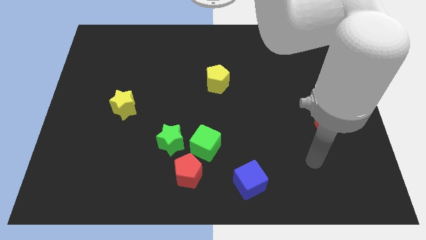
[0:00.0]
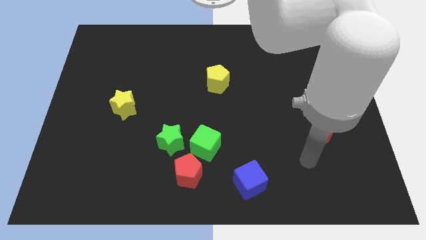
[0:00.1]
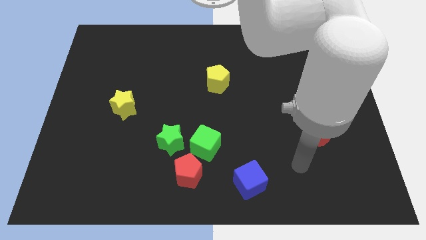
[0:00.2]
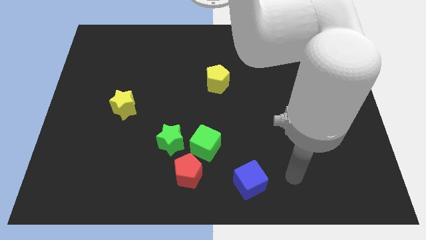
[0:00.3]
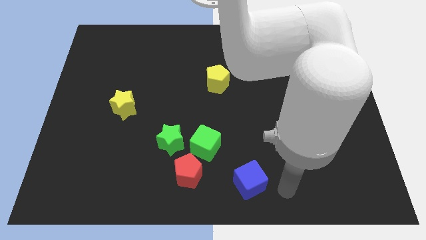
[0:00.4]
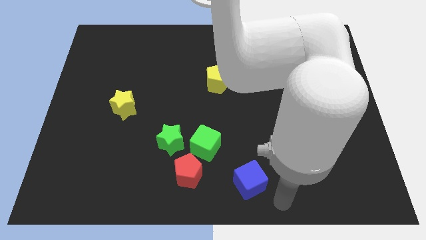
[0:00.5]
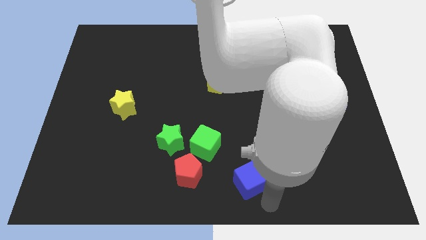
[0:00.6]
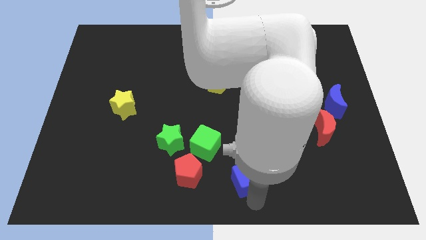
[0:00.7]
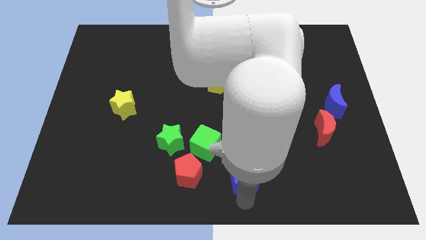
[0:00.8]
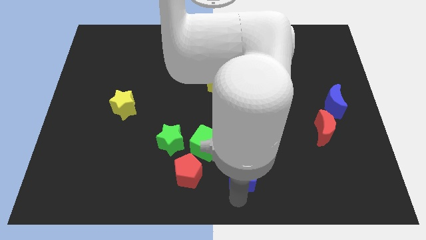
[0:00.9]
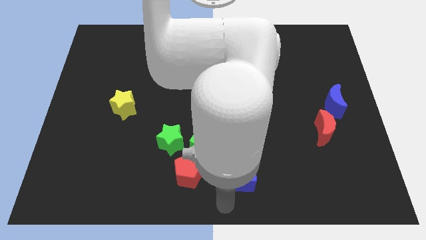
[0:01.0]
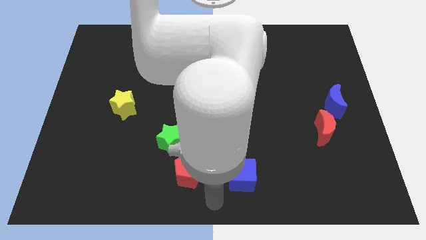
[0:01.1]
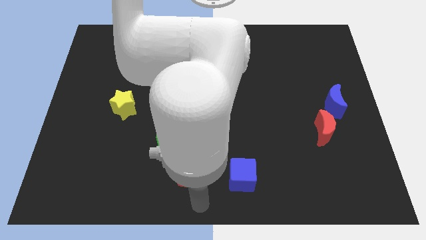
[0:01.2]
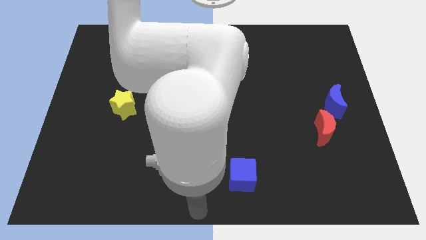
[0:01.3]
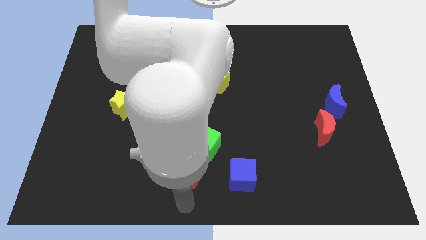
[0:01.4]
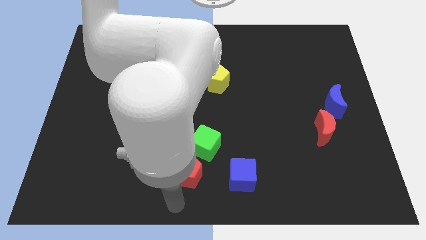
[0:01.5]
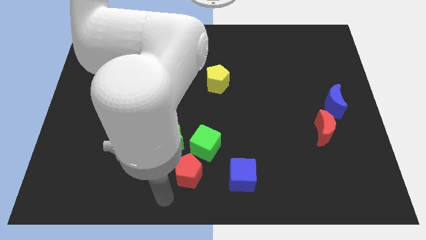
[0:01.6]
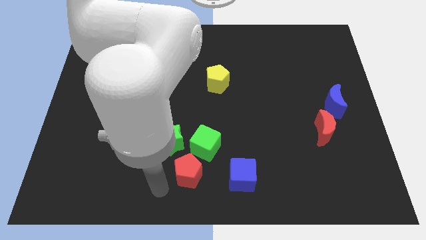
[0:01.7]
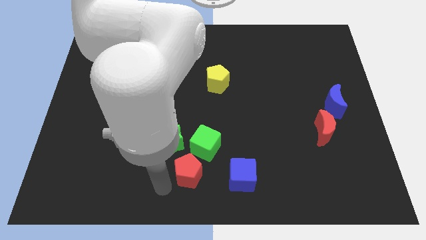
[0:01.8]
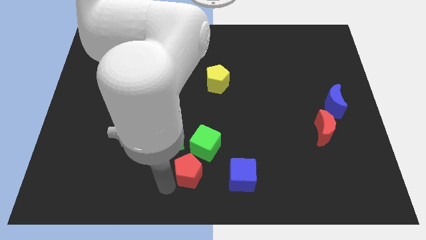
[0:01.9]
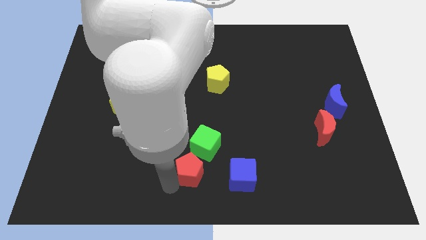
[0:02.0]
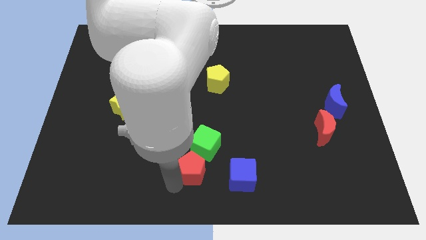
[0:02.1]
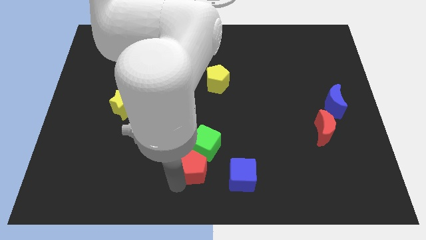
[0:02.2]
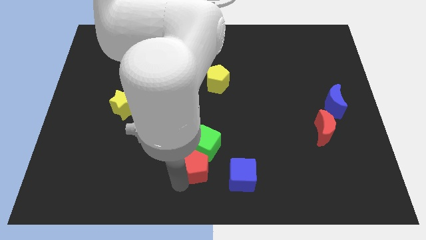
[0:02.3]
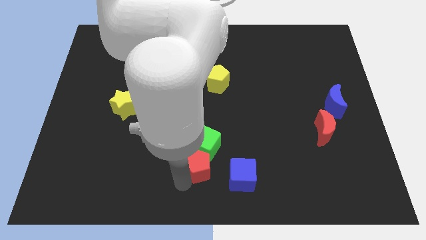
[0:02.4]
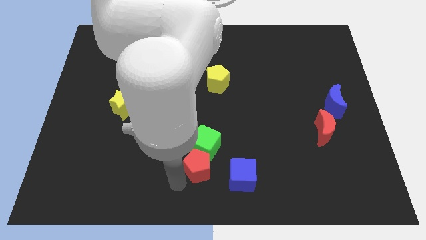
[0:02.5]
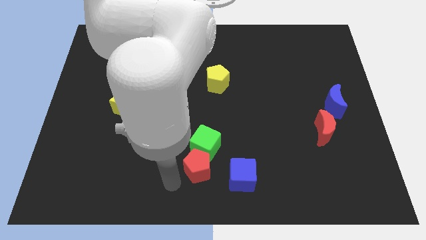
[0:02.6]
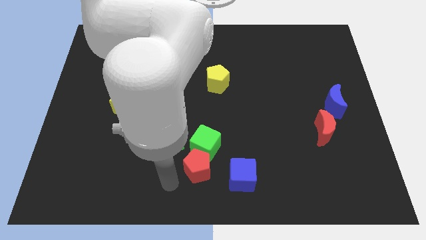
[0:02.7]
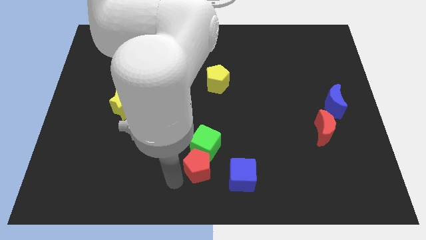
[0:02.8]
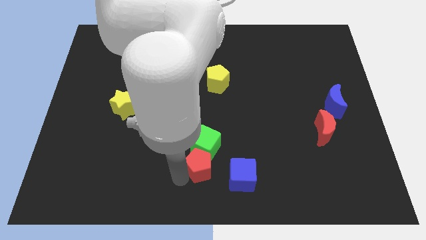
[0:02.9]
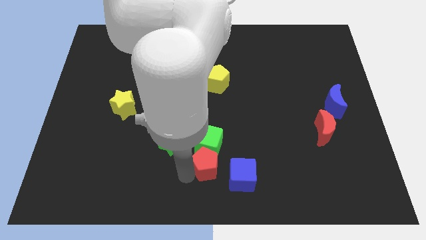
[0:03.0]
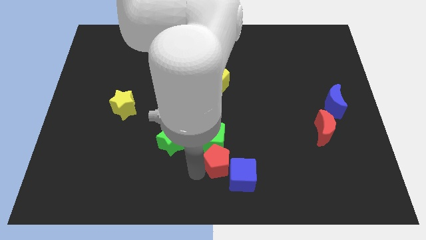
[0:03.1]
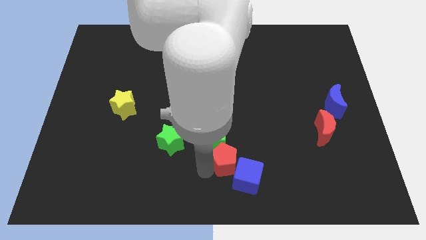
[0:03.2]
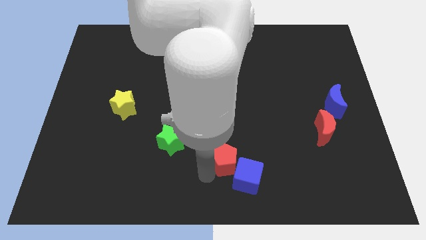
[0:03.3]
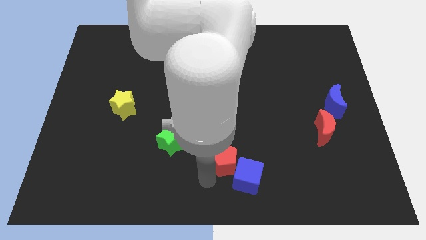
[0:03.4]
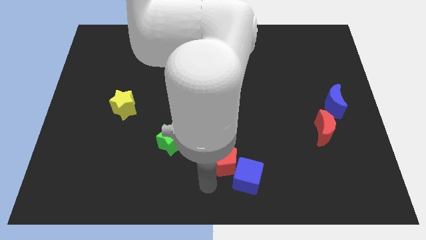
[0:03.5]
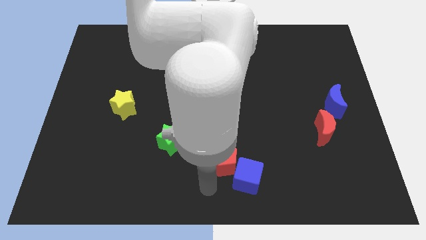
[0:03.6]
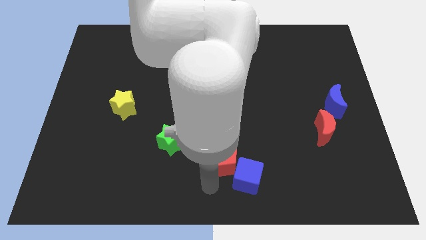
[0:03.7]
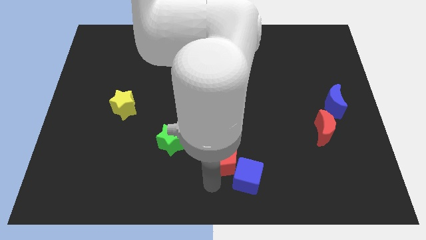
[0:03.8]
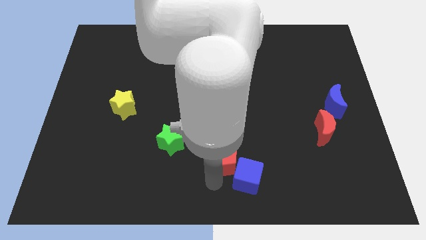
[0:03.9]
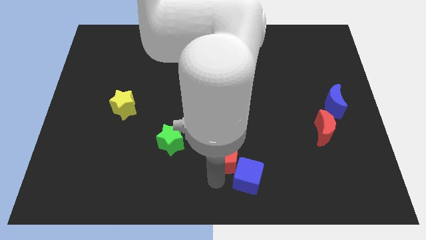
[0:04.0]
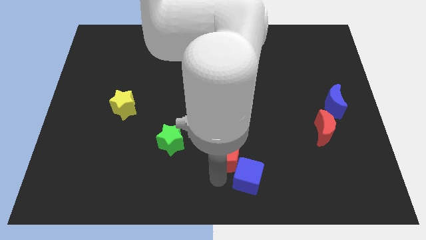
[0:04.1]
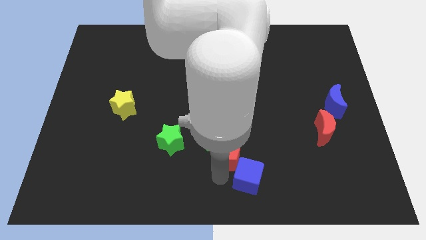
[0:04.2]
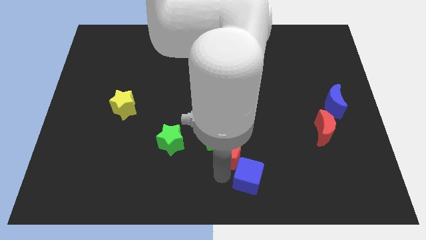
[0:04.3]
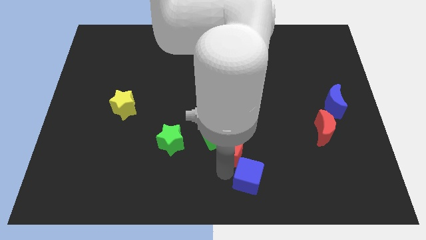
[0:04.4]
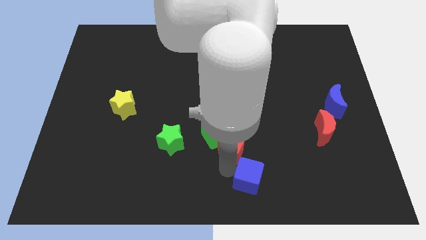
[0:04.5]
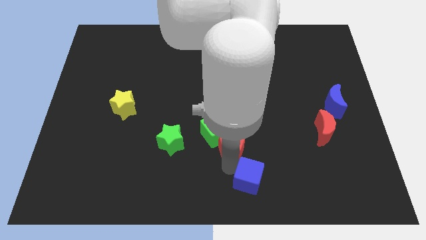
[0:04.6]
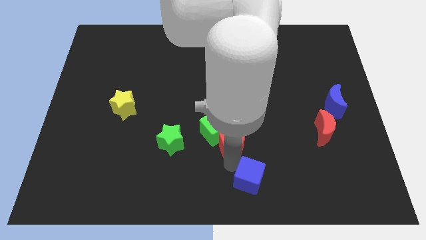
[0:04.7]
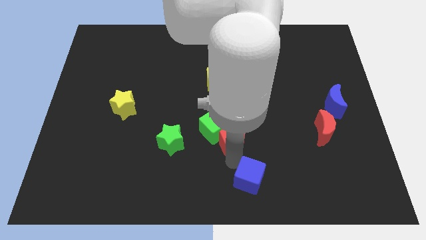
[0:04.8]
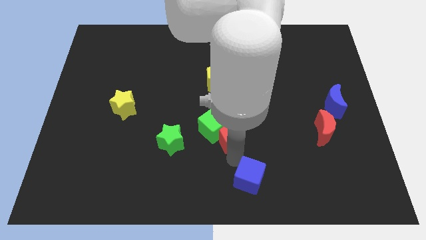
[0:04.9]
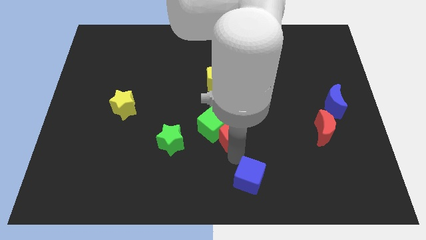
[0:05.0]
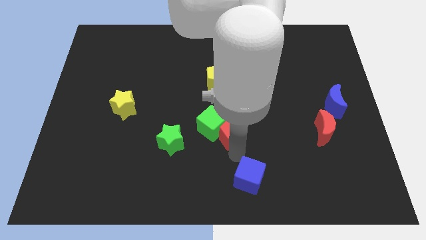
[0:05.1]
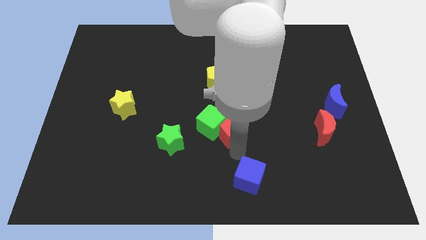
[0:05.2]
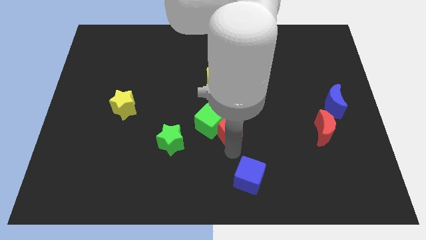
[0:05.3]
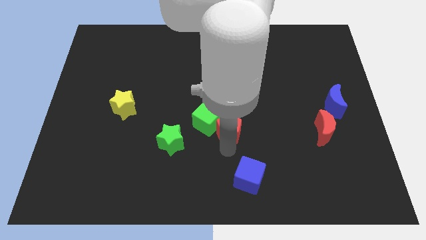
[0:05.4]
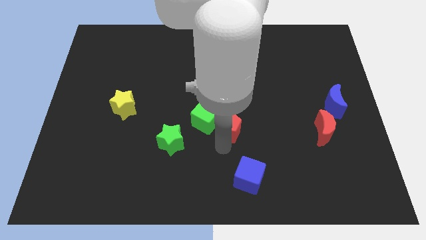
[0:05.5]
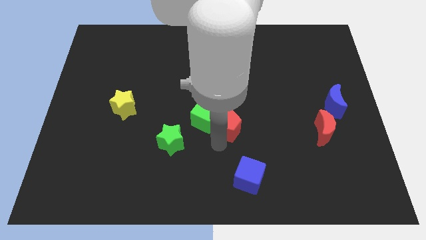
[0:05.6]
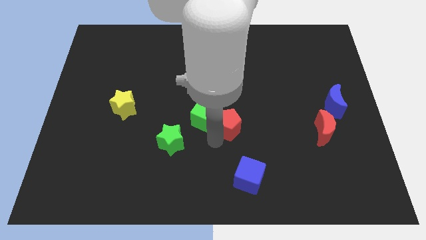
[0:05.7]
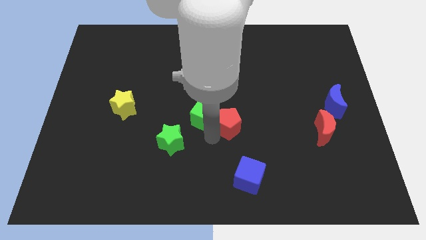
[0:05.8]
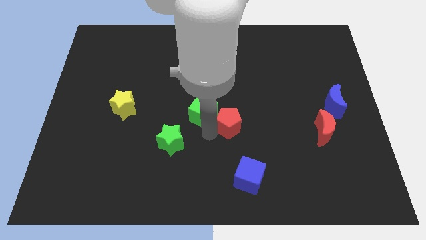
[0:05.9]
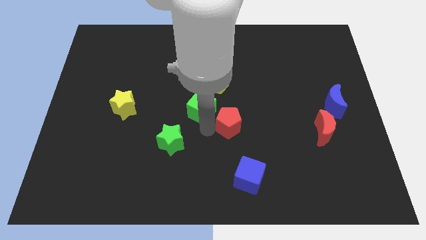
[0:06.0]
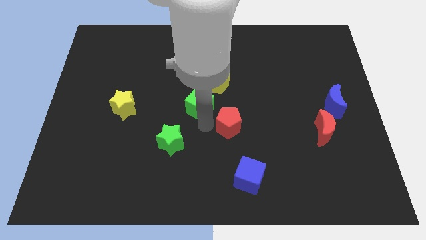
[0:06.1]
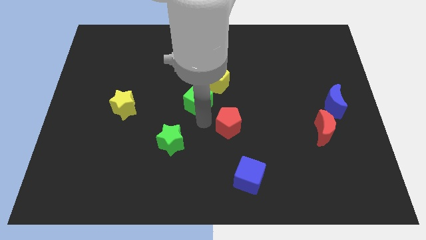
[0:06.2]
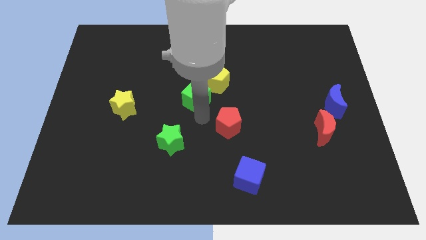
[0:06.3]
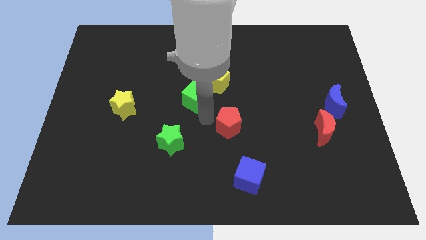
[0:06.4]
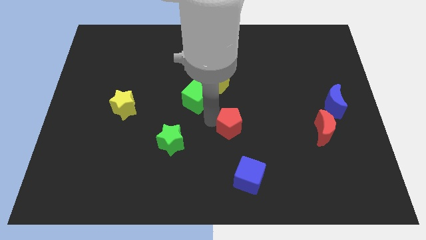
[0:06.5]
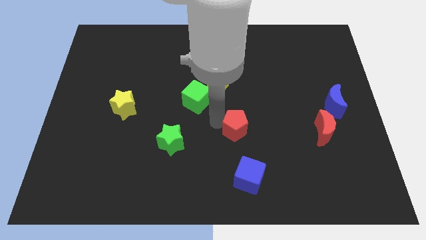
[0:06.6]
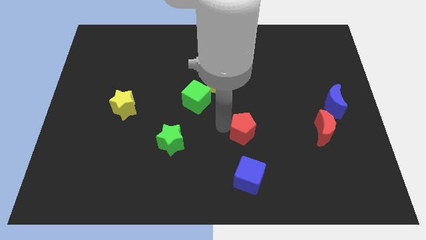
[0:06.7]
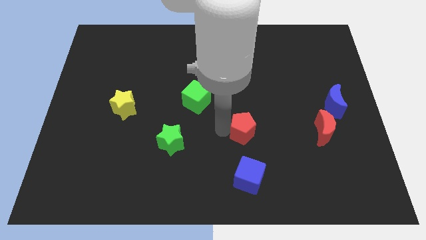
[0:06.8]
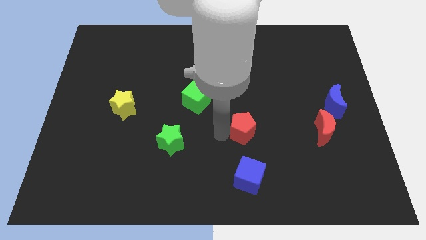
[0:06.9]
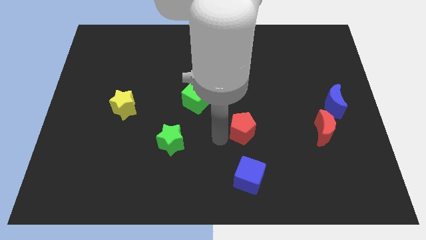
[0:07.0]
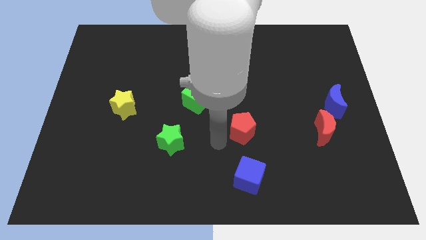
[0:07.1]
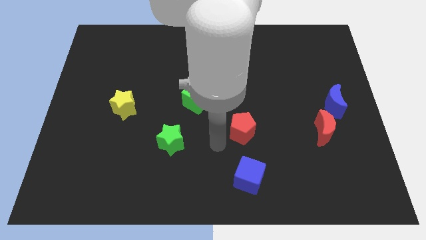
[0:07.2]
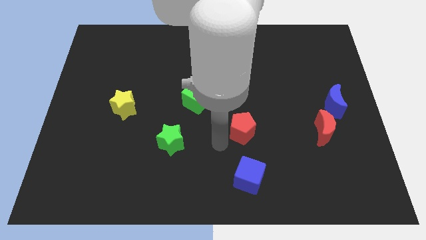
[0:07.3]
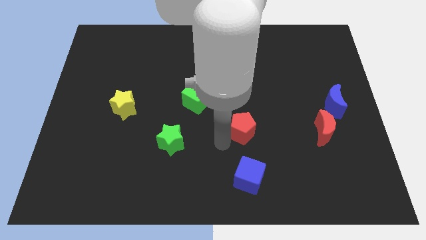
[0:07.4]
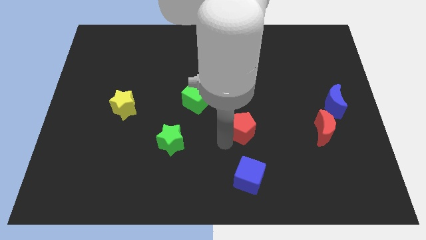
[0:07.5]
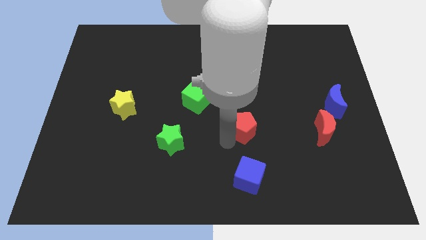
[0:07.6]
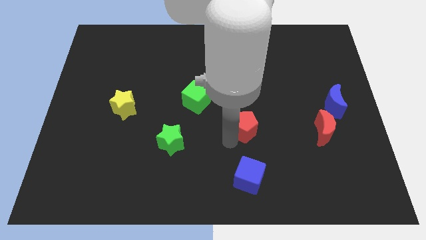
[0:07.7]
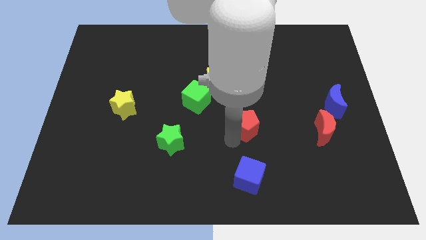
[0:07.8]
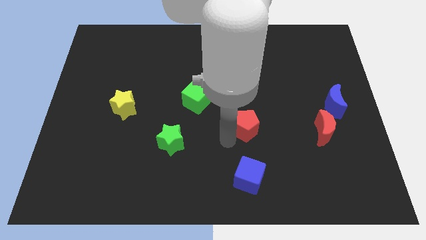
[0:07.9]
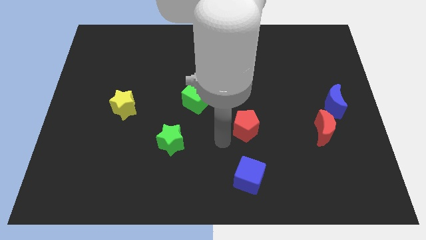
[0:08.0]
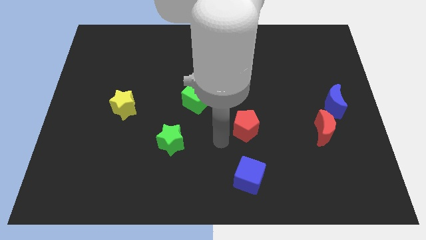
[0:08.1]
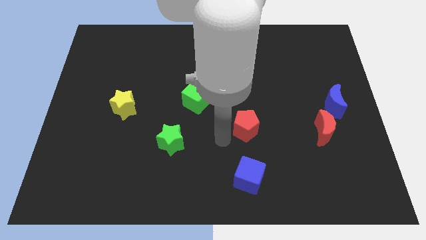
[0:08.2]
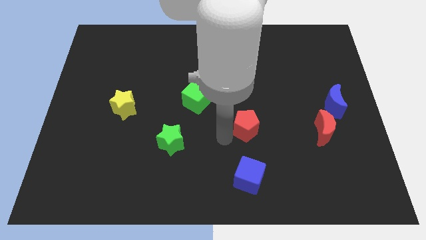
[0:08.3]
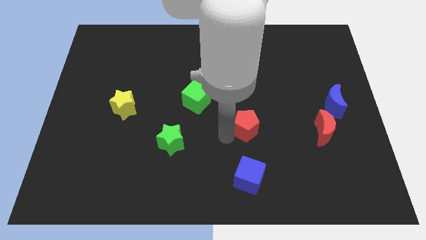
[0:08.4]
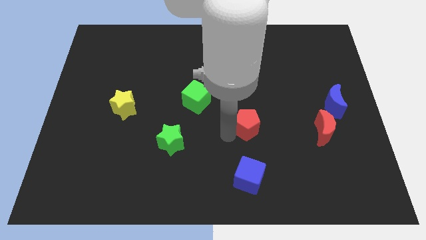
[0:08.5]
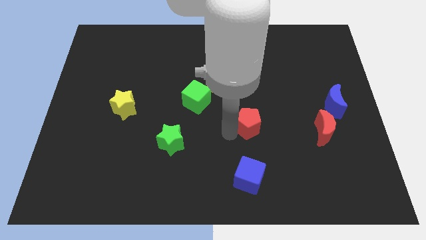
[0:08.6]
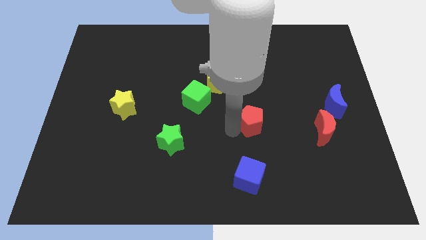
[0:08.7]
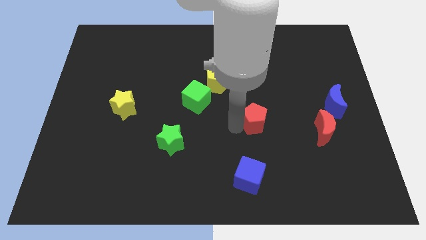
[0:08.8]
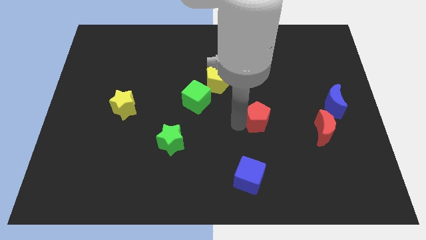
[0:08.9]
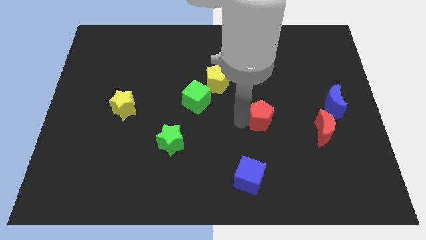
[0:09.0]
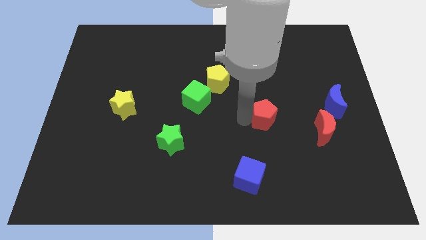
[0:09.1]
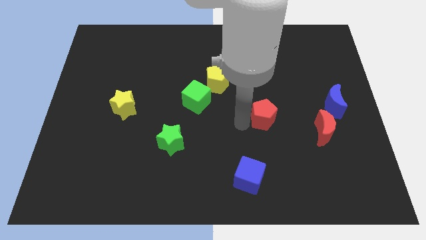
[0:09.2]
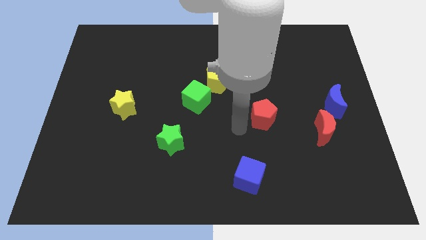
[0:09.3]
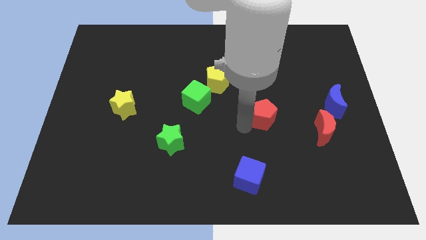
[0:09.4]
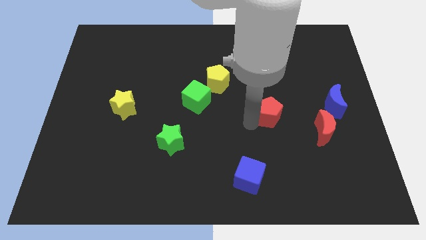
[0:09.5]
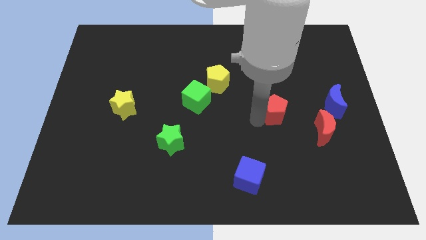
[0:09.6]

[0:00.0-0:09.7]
slide the red pentagon to the left side of the blue moon
